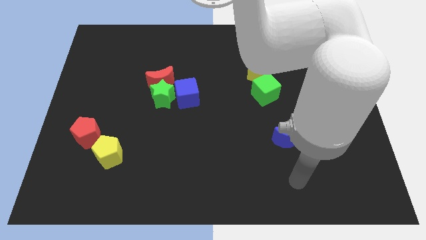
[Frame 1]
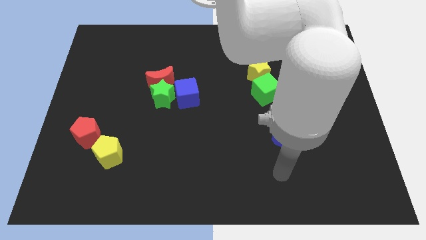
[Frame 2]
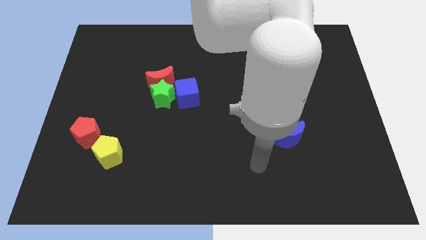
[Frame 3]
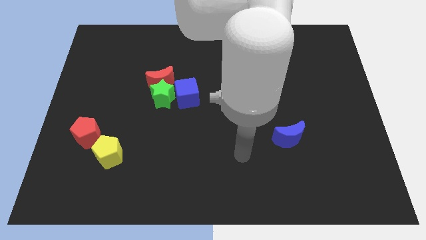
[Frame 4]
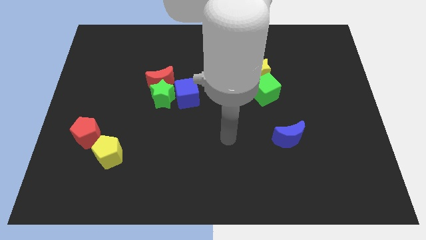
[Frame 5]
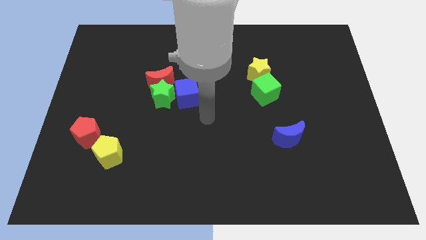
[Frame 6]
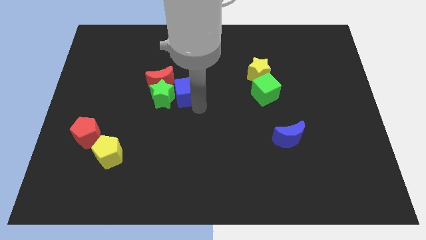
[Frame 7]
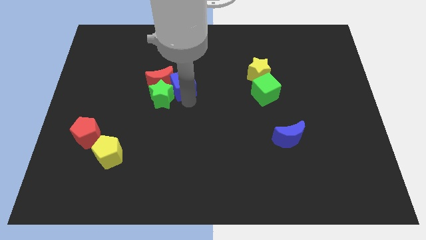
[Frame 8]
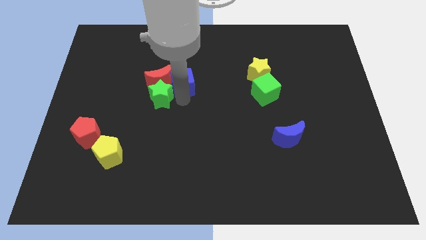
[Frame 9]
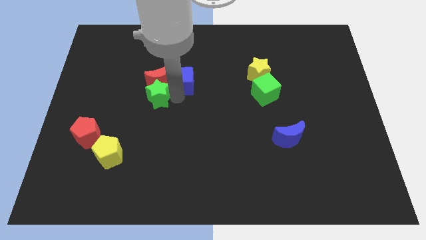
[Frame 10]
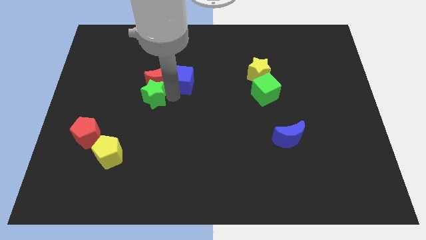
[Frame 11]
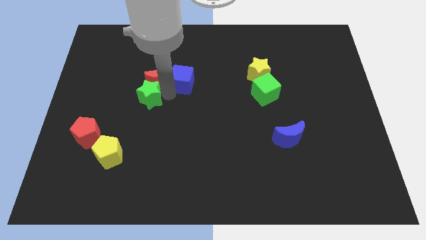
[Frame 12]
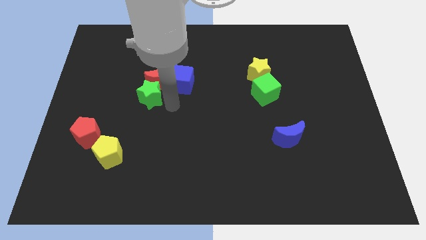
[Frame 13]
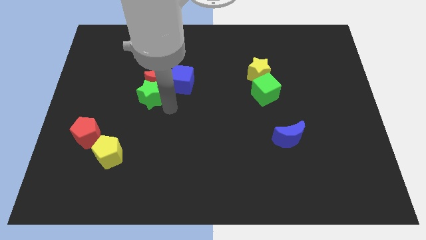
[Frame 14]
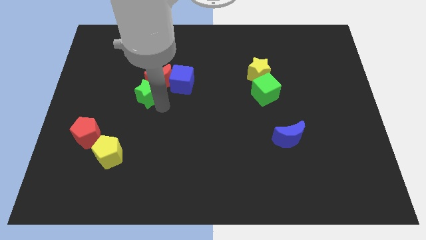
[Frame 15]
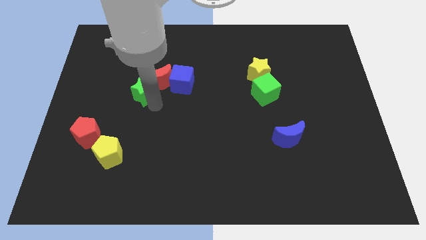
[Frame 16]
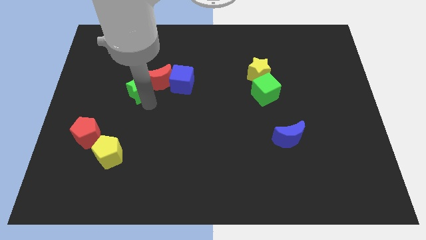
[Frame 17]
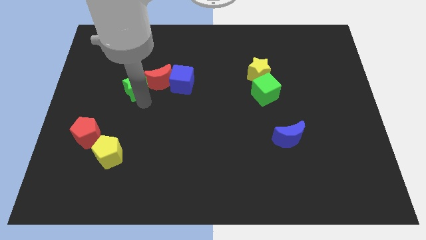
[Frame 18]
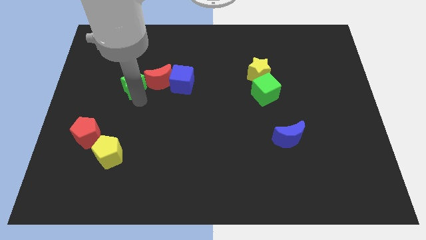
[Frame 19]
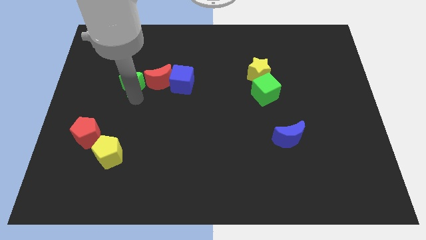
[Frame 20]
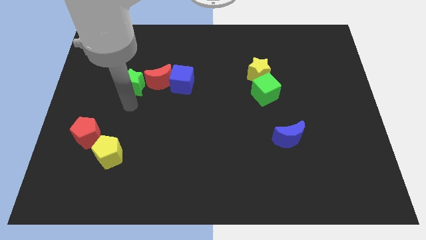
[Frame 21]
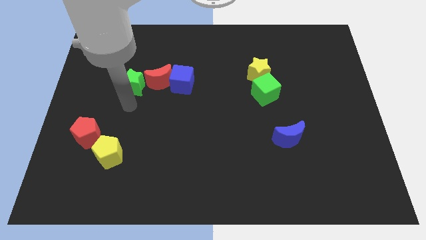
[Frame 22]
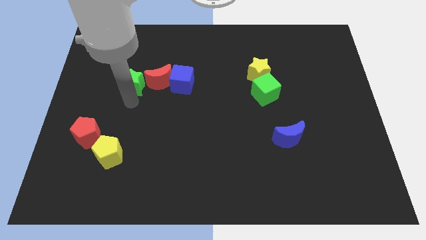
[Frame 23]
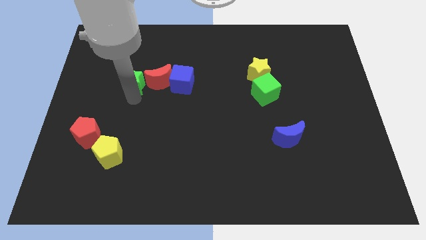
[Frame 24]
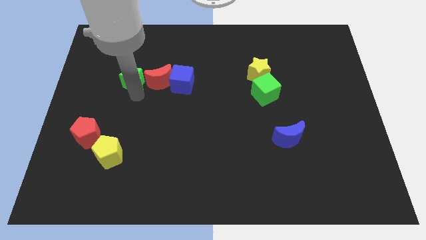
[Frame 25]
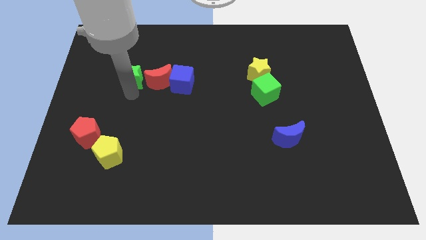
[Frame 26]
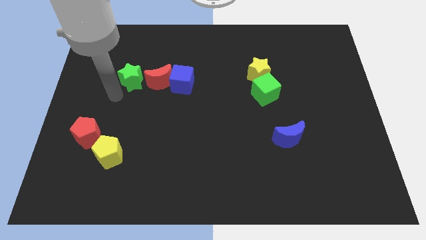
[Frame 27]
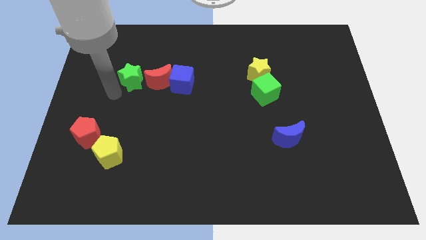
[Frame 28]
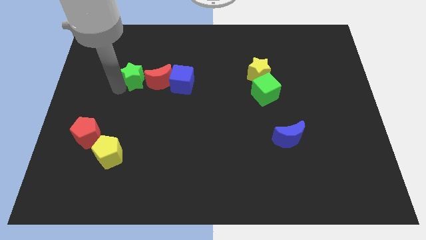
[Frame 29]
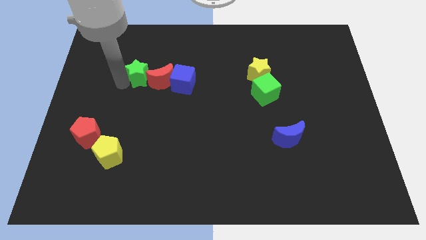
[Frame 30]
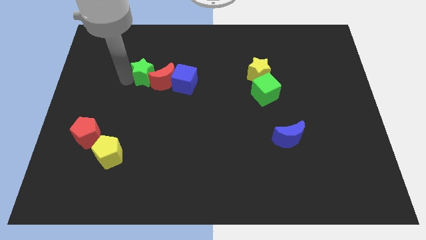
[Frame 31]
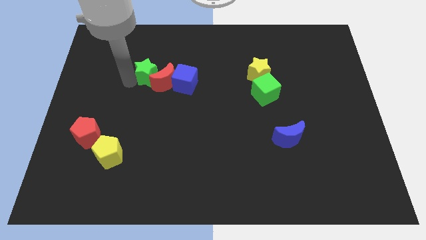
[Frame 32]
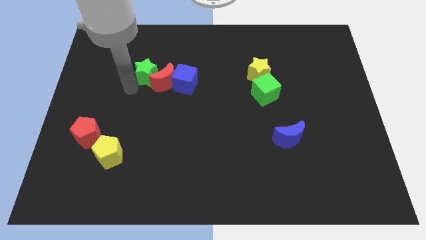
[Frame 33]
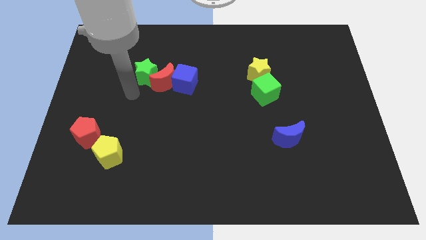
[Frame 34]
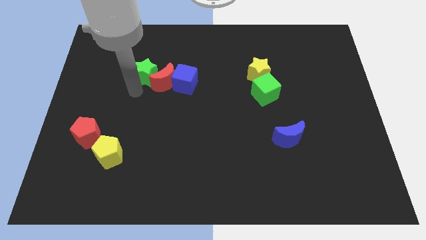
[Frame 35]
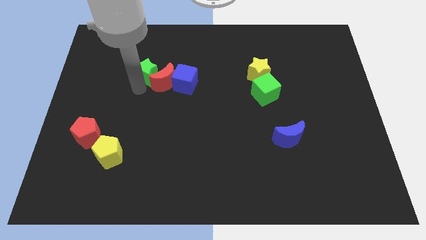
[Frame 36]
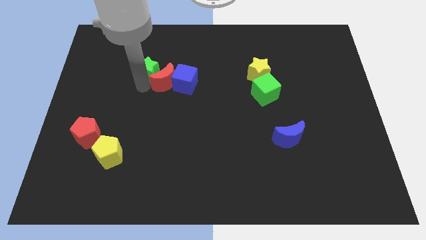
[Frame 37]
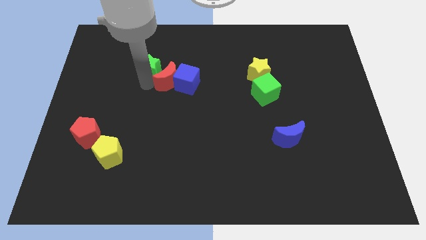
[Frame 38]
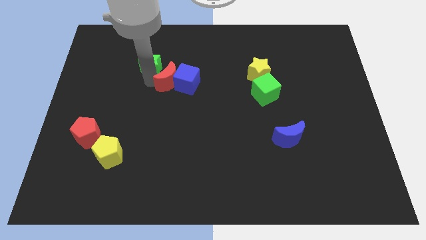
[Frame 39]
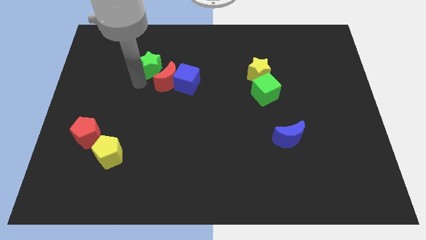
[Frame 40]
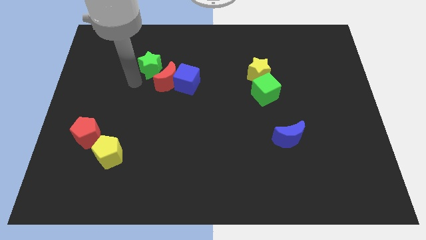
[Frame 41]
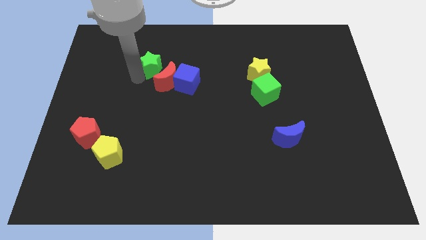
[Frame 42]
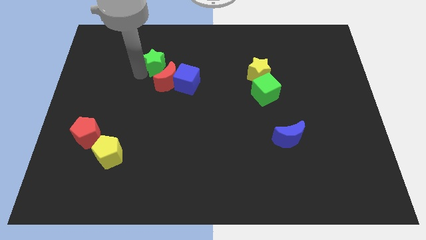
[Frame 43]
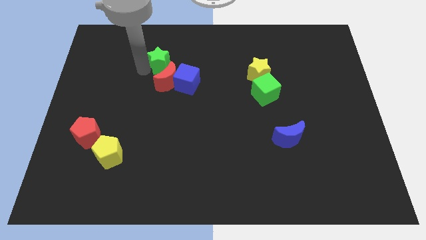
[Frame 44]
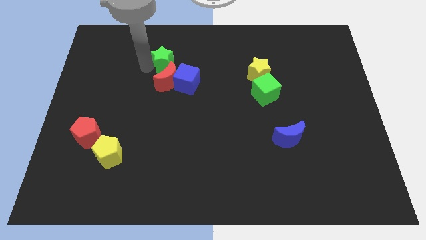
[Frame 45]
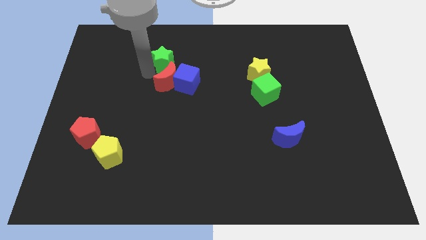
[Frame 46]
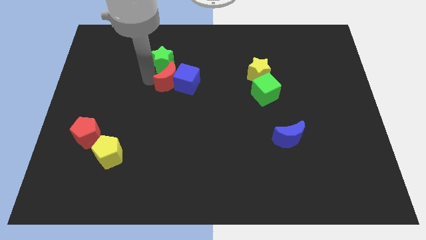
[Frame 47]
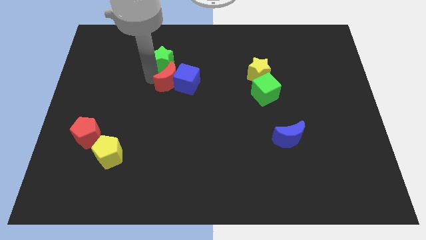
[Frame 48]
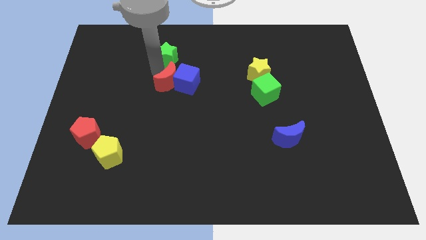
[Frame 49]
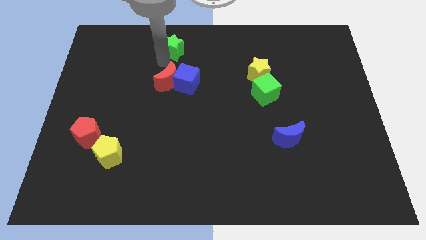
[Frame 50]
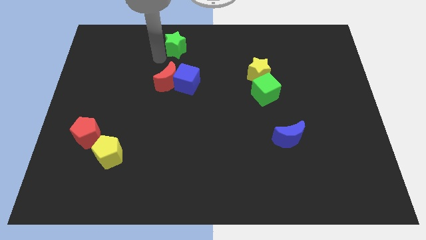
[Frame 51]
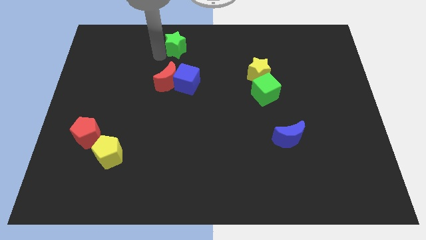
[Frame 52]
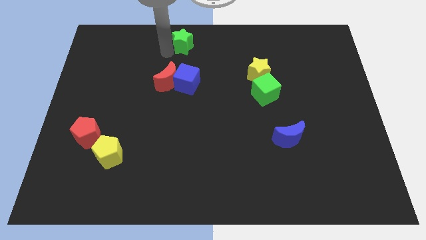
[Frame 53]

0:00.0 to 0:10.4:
push the green star to the towards your base
